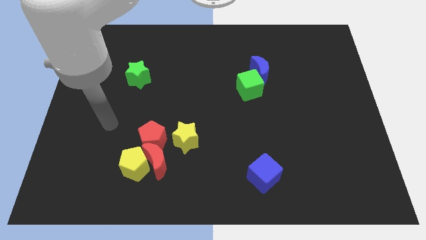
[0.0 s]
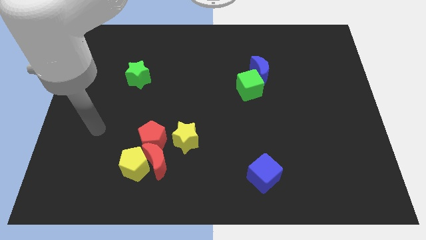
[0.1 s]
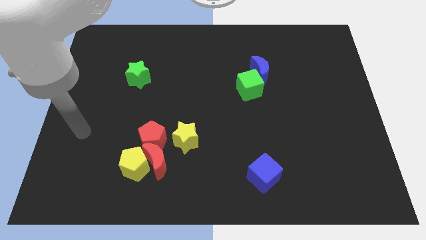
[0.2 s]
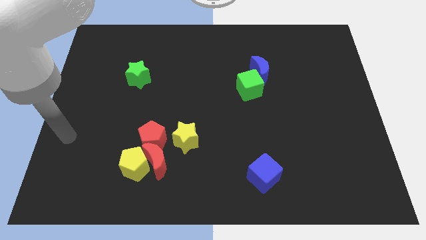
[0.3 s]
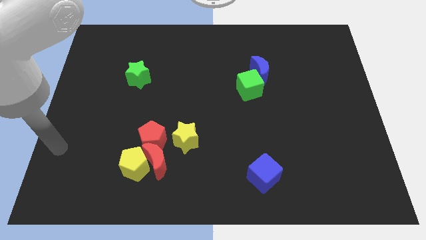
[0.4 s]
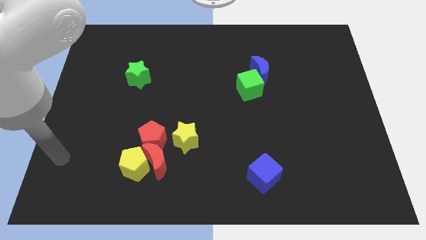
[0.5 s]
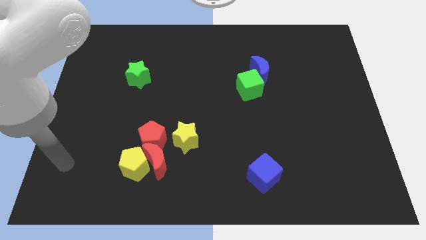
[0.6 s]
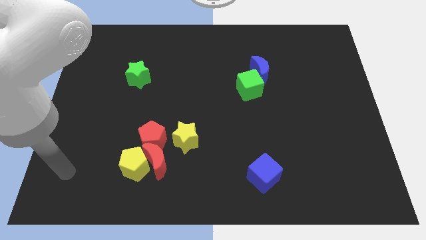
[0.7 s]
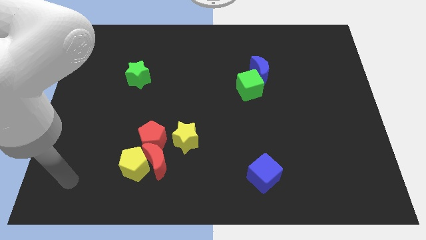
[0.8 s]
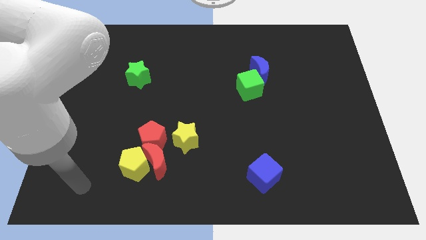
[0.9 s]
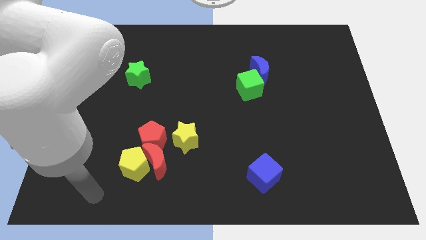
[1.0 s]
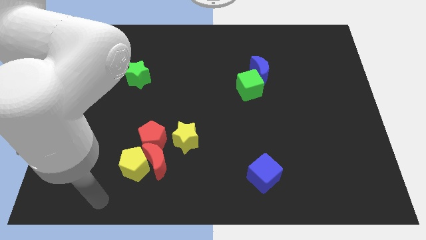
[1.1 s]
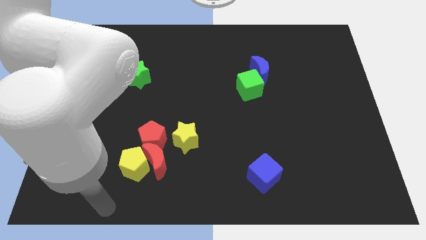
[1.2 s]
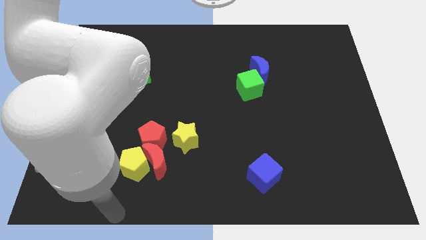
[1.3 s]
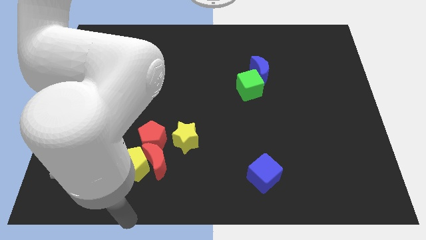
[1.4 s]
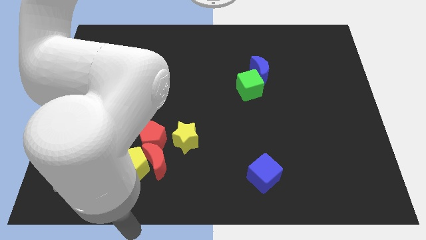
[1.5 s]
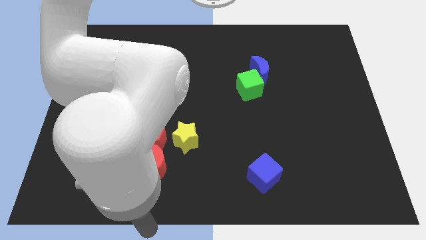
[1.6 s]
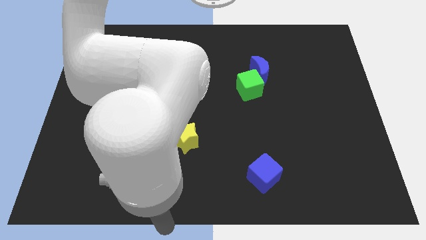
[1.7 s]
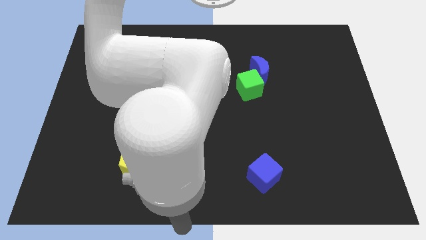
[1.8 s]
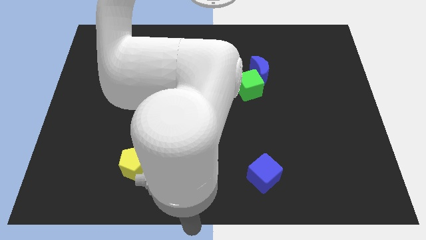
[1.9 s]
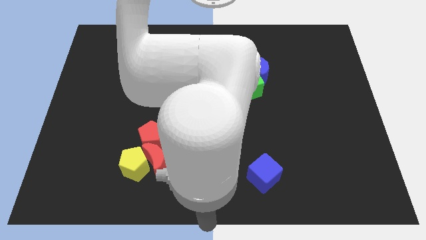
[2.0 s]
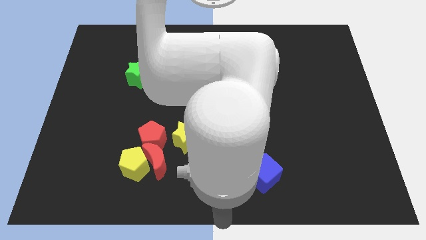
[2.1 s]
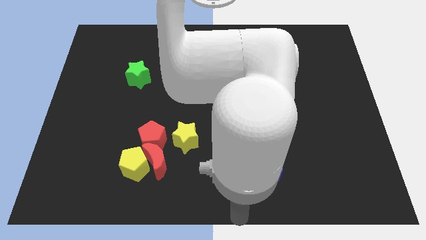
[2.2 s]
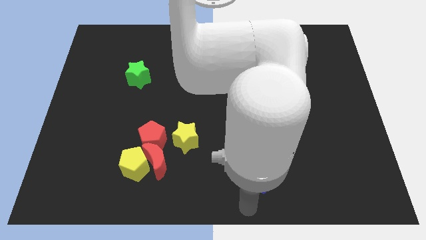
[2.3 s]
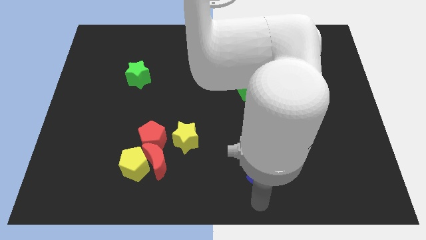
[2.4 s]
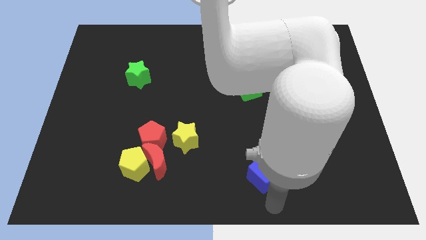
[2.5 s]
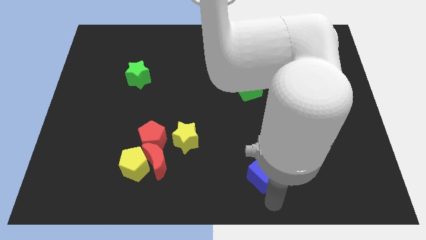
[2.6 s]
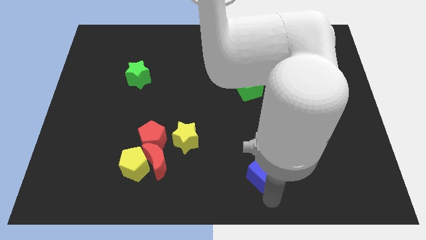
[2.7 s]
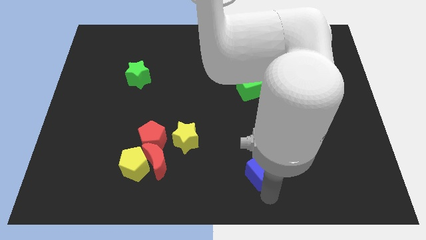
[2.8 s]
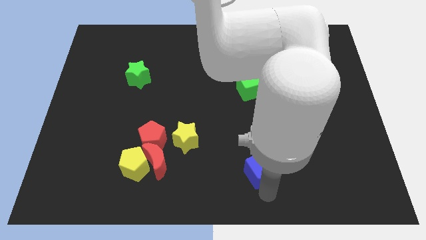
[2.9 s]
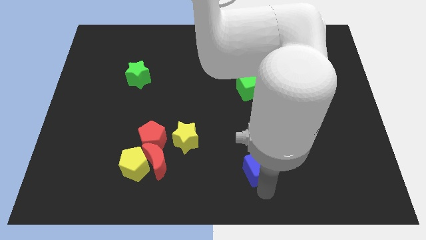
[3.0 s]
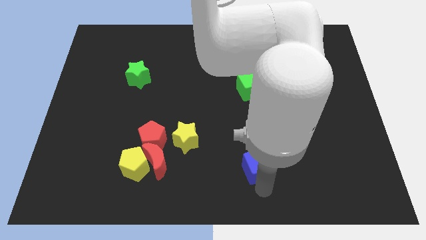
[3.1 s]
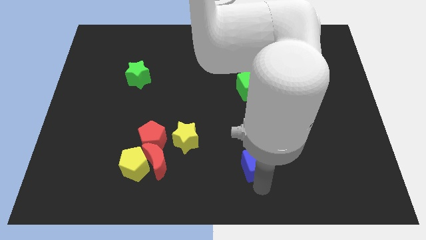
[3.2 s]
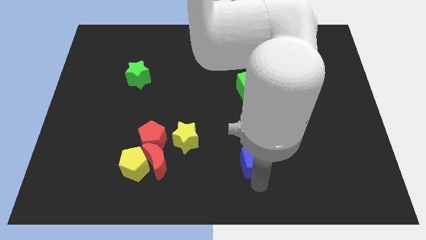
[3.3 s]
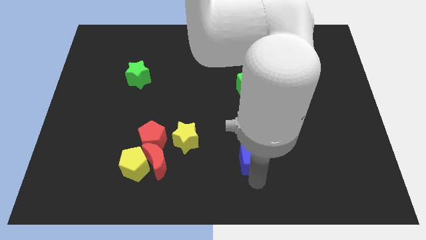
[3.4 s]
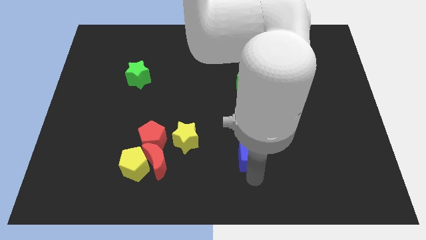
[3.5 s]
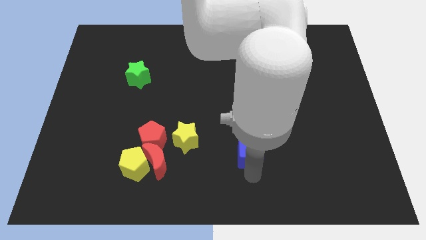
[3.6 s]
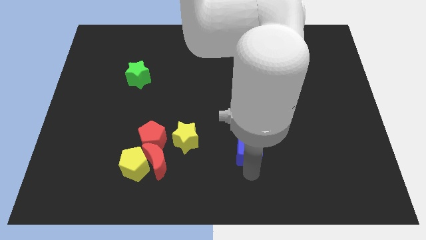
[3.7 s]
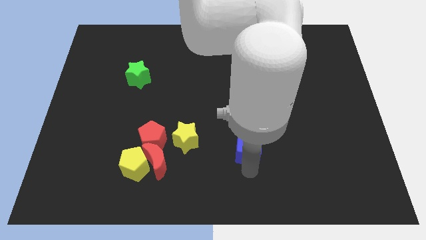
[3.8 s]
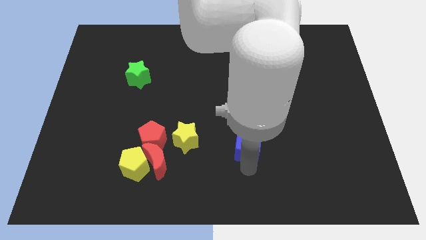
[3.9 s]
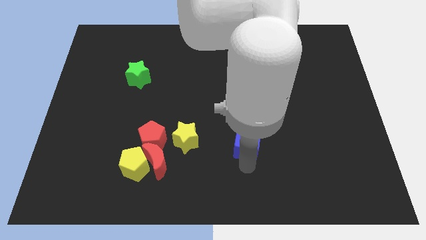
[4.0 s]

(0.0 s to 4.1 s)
push the blue cube up a little

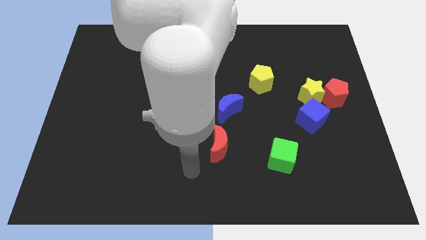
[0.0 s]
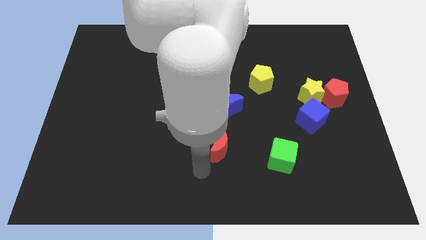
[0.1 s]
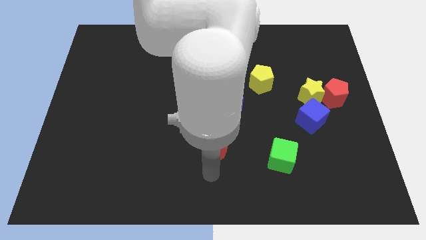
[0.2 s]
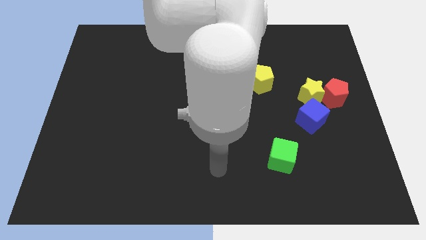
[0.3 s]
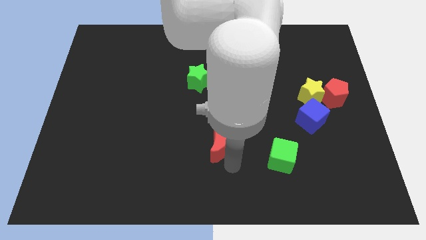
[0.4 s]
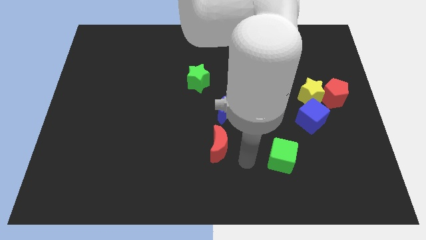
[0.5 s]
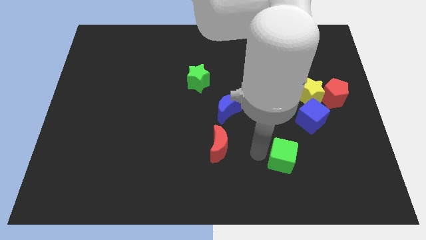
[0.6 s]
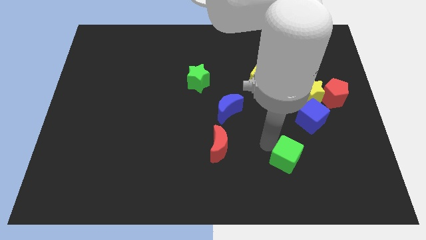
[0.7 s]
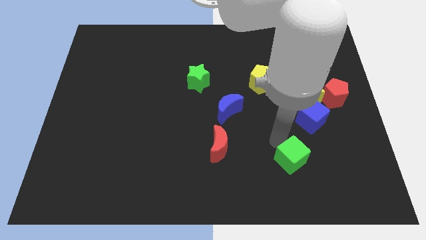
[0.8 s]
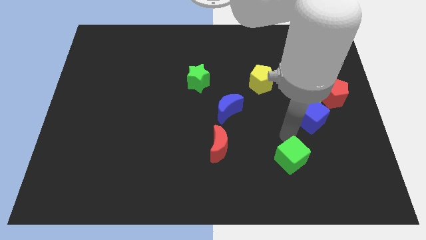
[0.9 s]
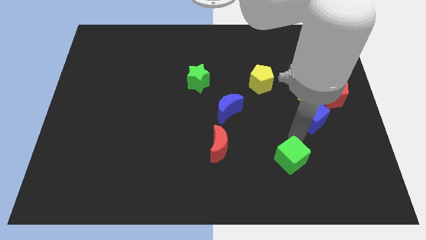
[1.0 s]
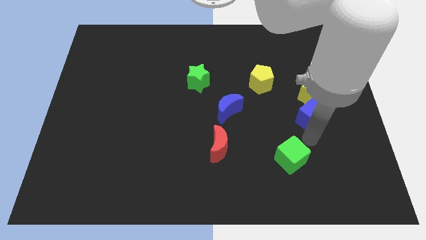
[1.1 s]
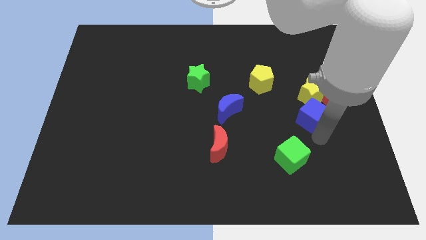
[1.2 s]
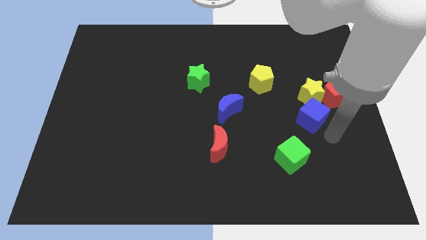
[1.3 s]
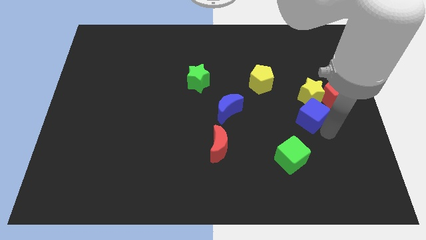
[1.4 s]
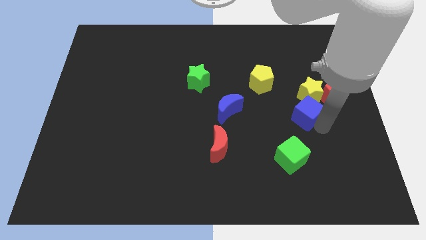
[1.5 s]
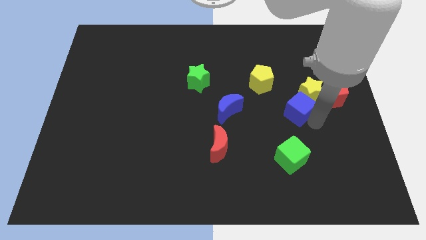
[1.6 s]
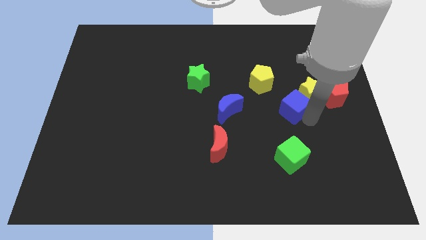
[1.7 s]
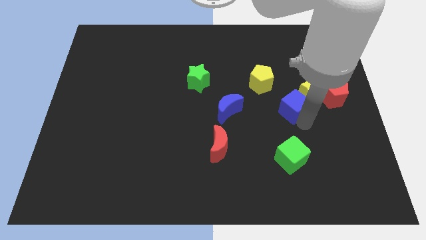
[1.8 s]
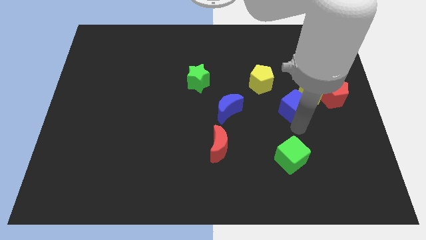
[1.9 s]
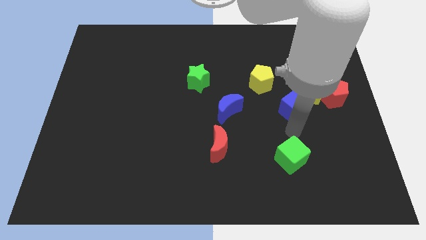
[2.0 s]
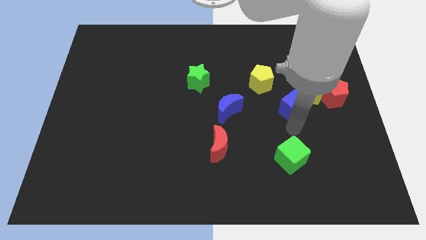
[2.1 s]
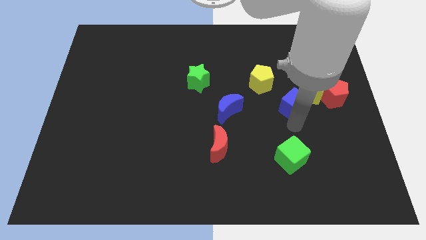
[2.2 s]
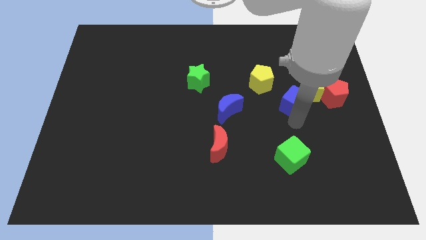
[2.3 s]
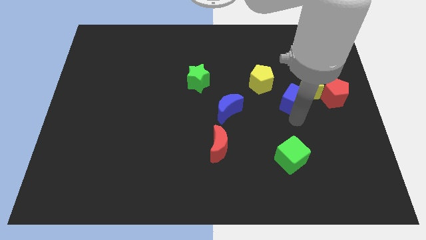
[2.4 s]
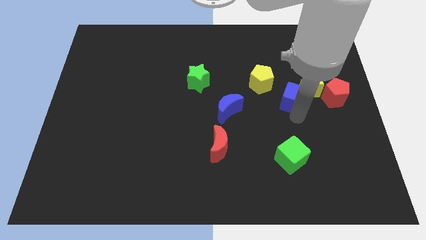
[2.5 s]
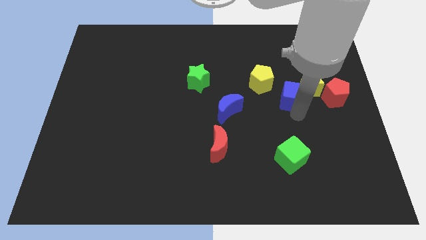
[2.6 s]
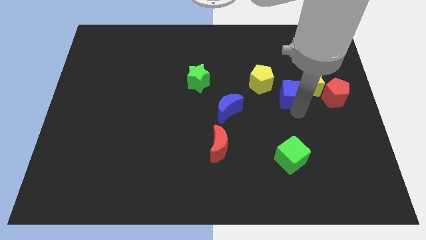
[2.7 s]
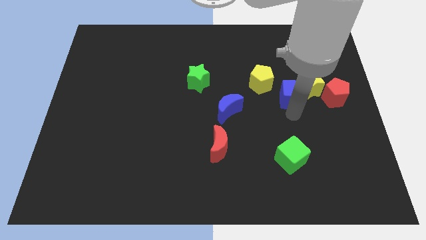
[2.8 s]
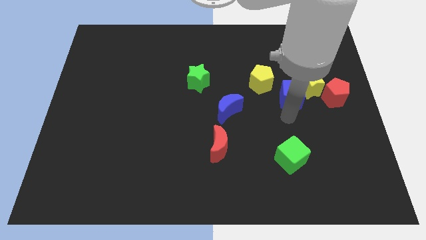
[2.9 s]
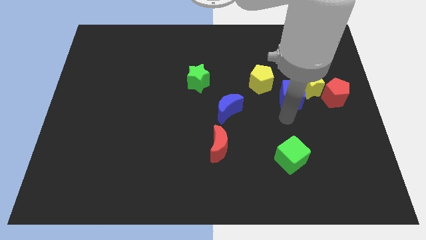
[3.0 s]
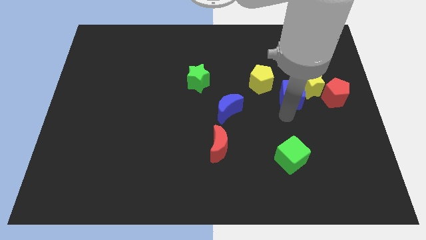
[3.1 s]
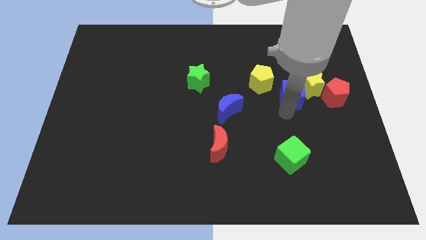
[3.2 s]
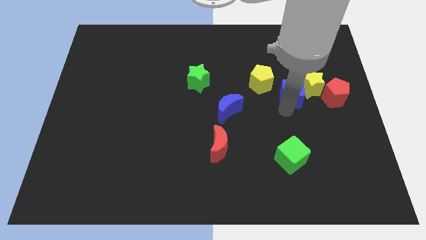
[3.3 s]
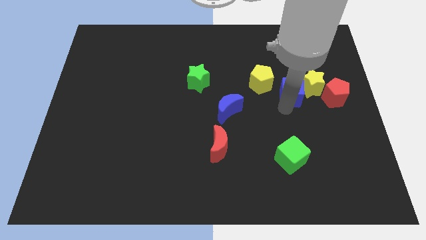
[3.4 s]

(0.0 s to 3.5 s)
slightly move the blue cube upwards

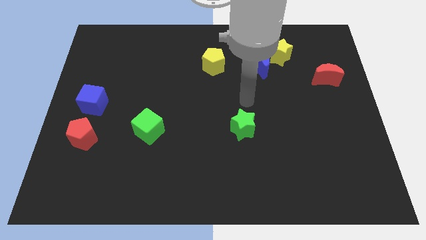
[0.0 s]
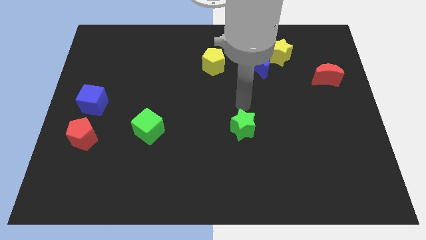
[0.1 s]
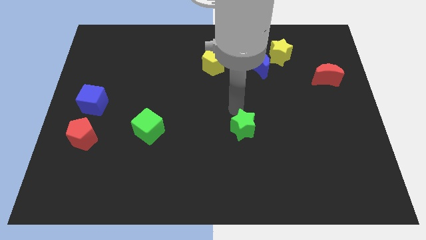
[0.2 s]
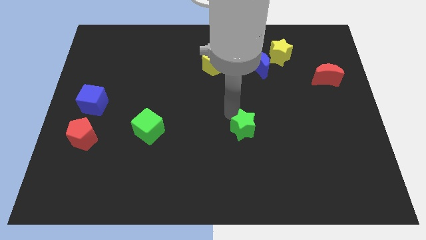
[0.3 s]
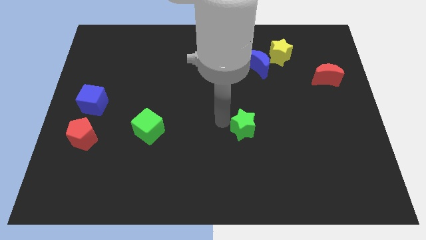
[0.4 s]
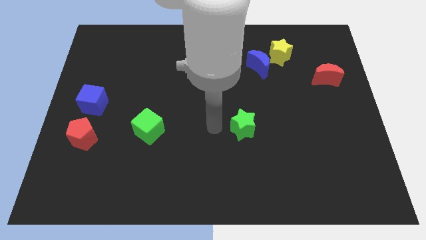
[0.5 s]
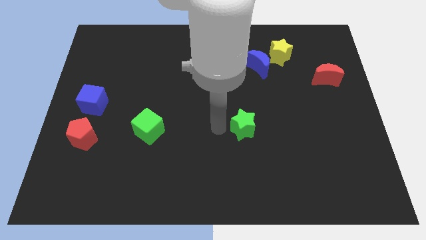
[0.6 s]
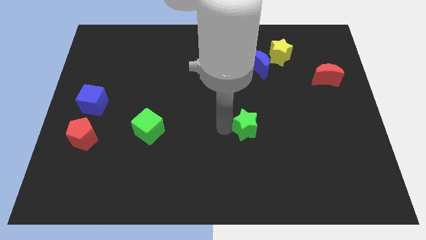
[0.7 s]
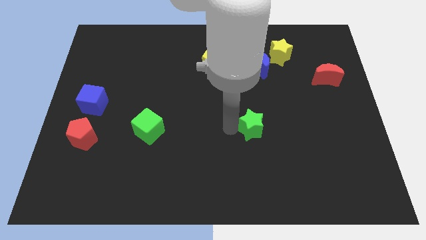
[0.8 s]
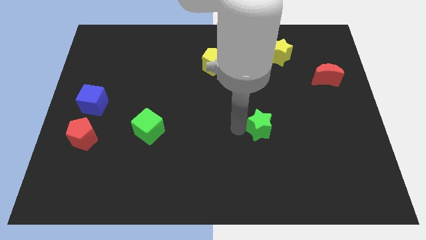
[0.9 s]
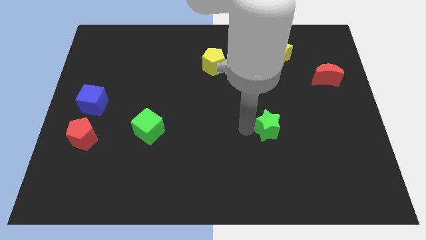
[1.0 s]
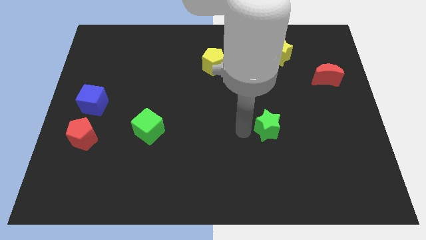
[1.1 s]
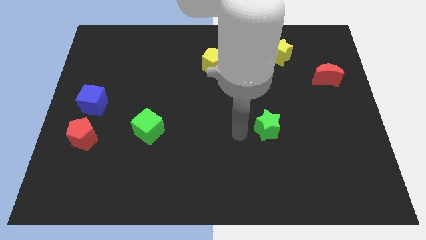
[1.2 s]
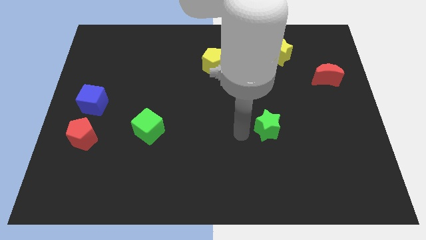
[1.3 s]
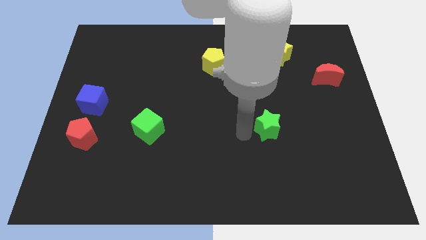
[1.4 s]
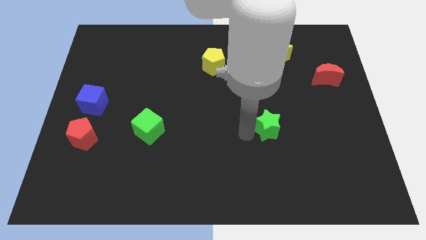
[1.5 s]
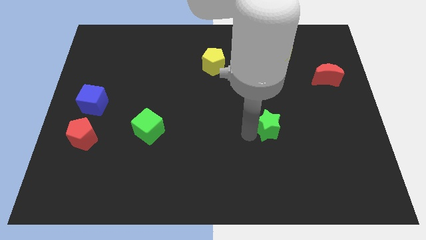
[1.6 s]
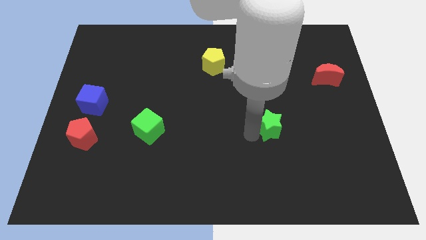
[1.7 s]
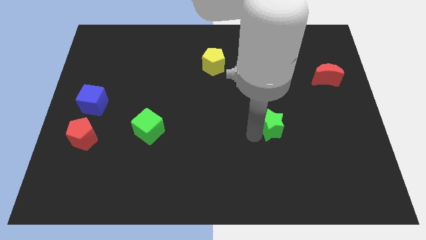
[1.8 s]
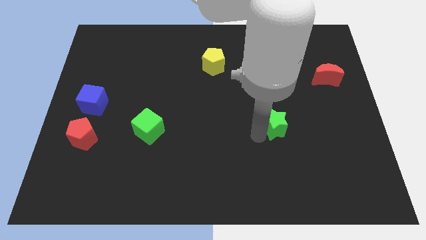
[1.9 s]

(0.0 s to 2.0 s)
push the green star to the right a little bit
